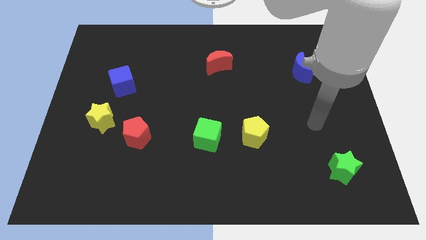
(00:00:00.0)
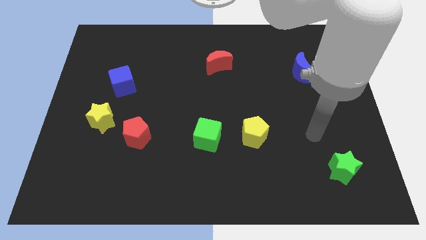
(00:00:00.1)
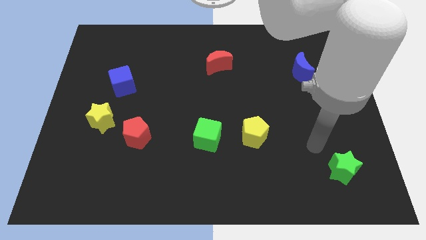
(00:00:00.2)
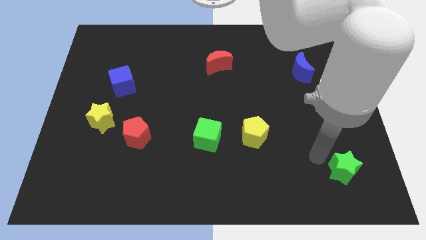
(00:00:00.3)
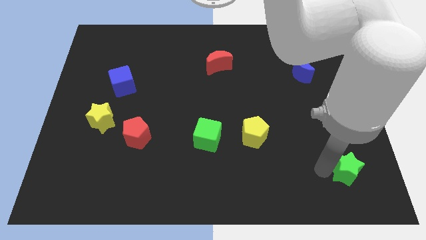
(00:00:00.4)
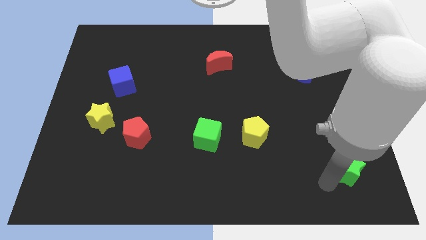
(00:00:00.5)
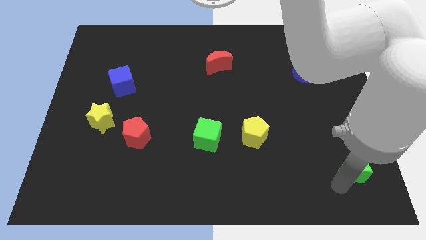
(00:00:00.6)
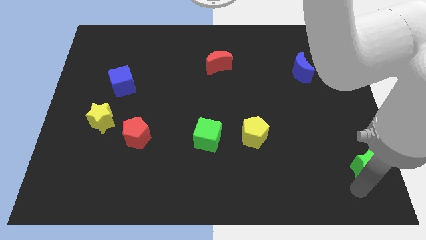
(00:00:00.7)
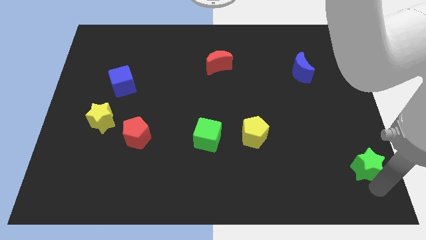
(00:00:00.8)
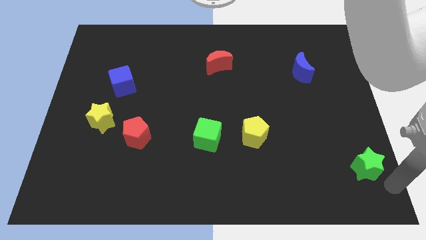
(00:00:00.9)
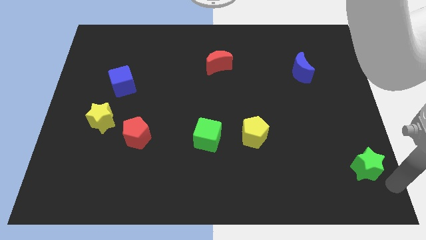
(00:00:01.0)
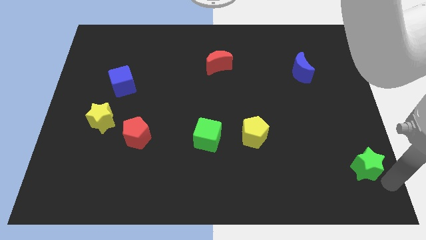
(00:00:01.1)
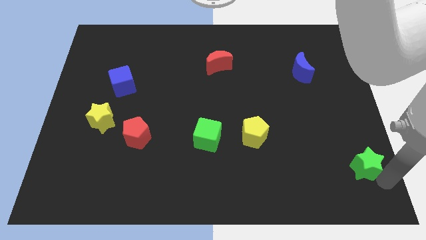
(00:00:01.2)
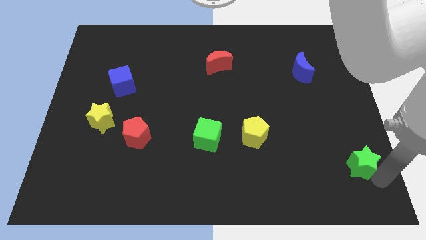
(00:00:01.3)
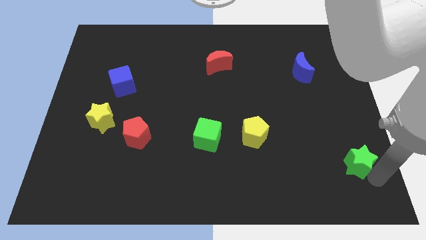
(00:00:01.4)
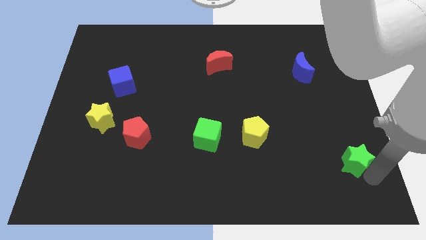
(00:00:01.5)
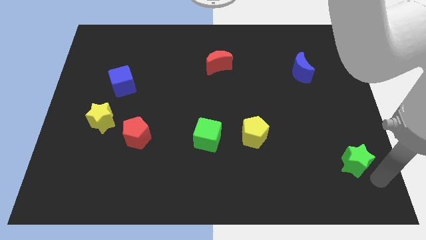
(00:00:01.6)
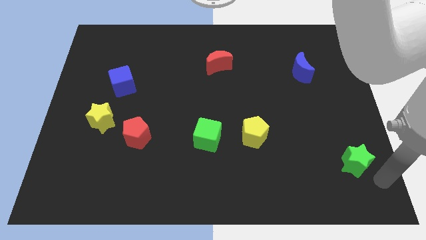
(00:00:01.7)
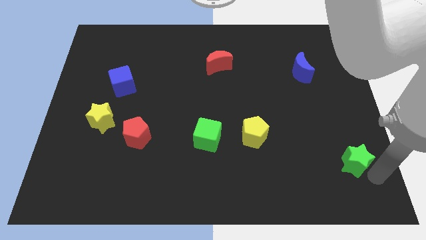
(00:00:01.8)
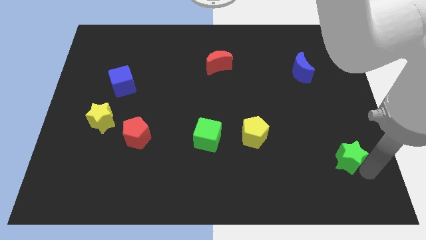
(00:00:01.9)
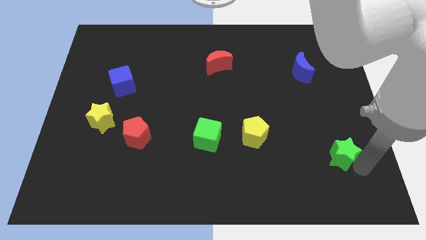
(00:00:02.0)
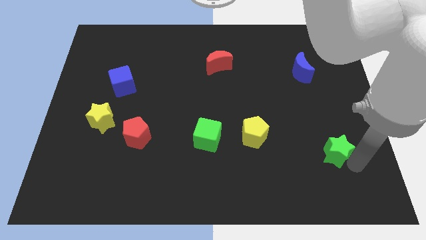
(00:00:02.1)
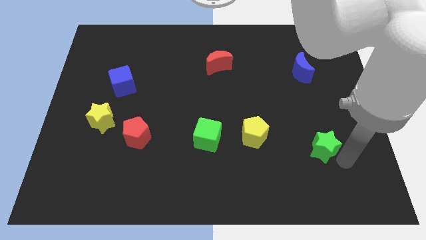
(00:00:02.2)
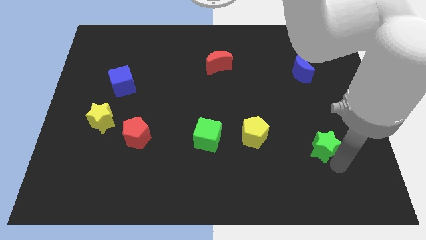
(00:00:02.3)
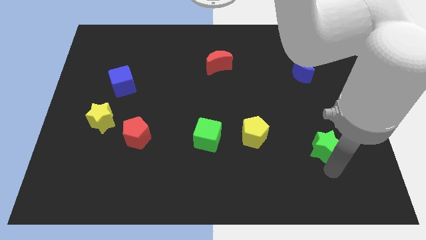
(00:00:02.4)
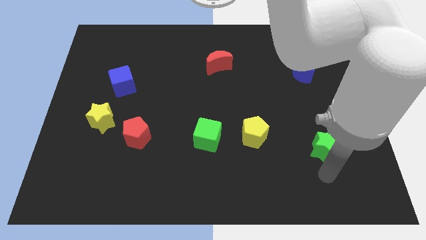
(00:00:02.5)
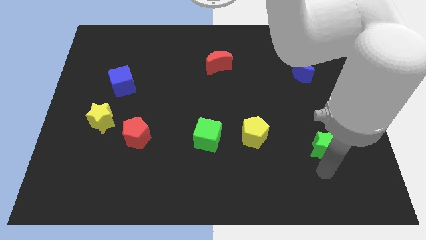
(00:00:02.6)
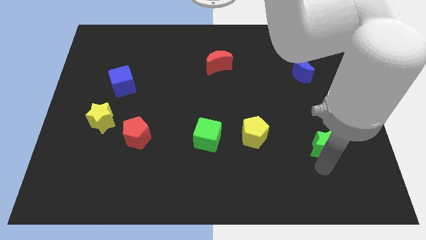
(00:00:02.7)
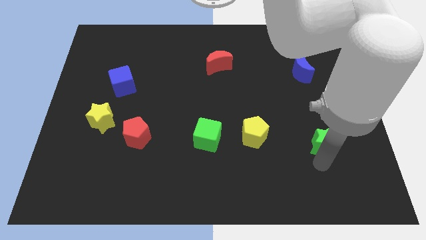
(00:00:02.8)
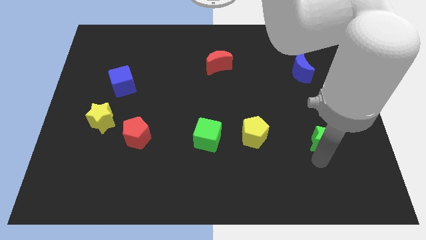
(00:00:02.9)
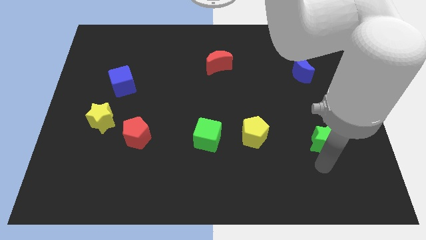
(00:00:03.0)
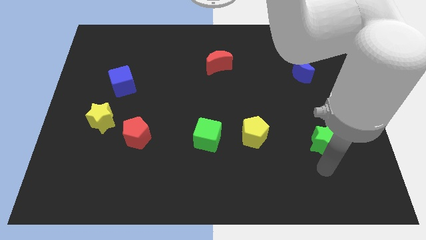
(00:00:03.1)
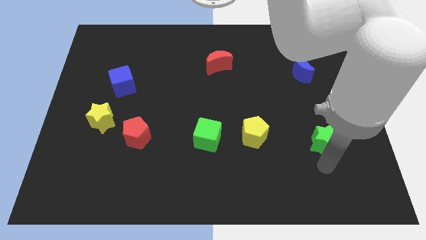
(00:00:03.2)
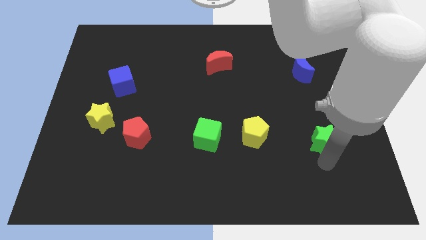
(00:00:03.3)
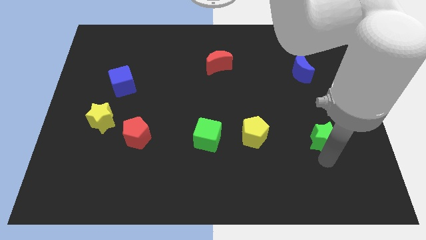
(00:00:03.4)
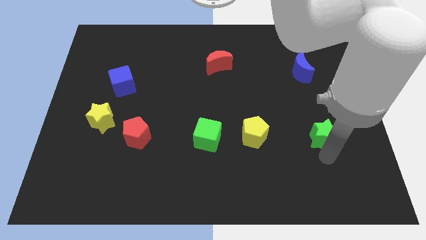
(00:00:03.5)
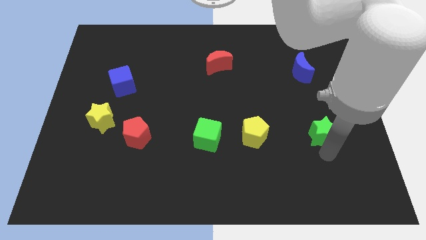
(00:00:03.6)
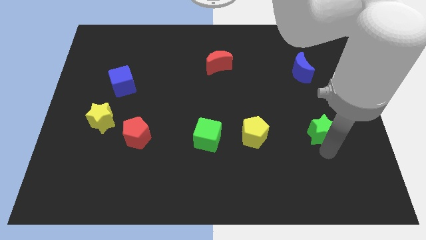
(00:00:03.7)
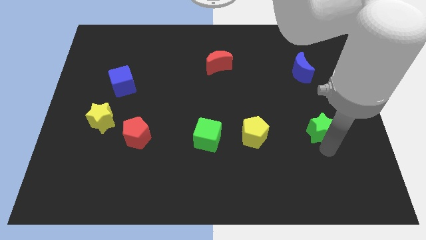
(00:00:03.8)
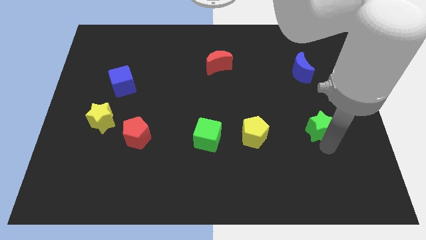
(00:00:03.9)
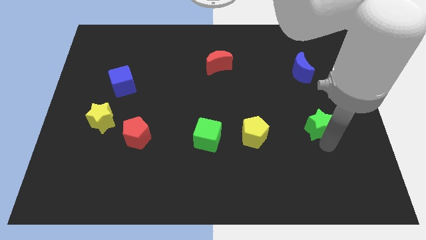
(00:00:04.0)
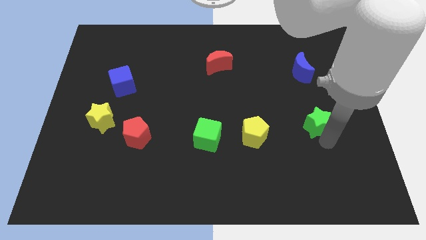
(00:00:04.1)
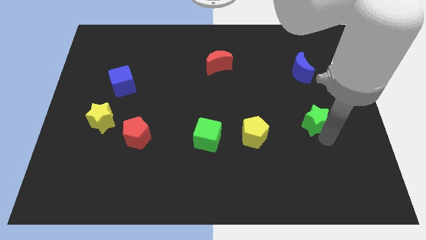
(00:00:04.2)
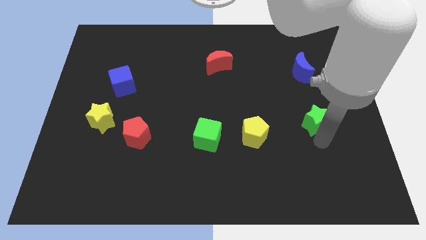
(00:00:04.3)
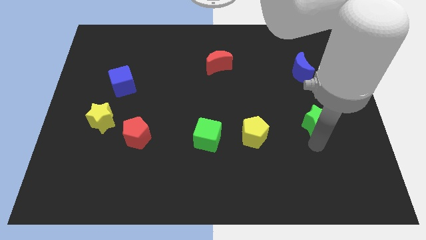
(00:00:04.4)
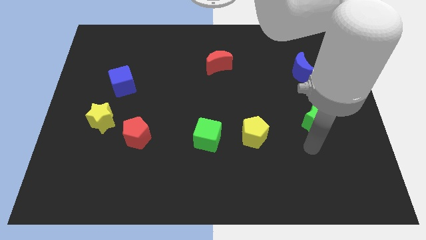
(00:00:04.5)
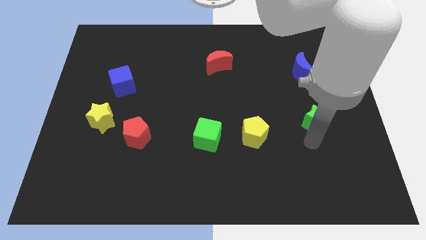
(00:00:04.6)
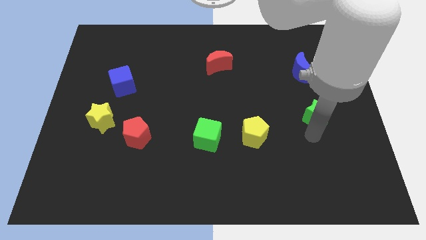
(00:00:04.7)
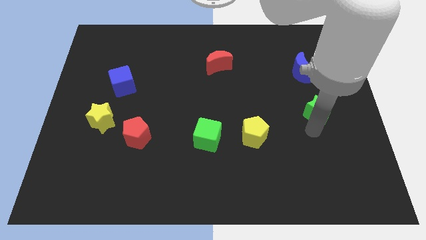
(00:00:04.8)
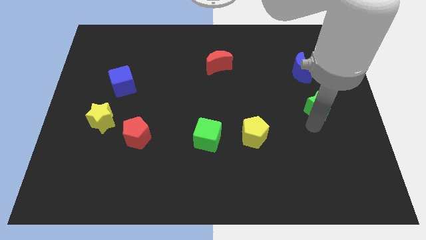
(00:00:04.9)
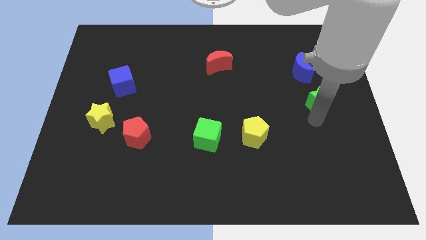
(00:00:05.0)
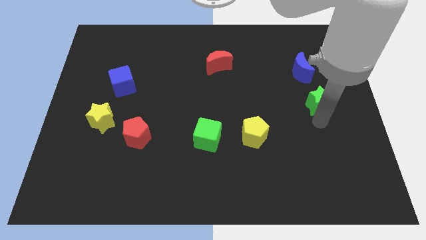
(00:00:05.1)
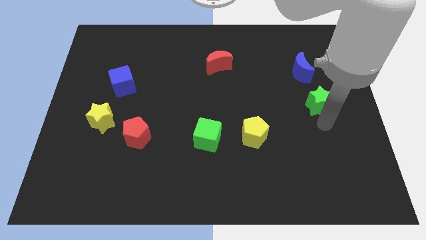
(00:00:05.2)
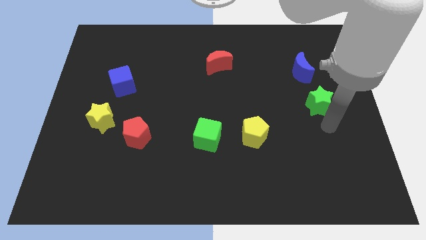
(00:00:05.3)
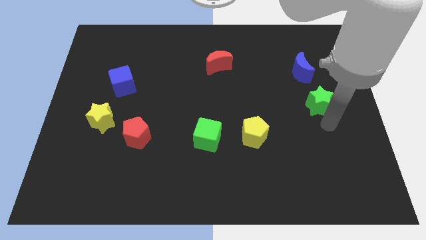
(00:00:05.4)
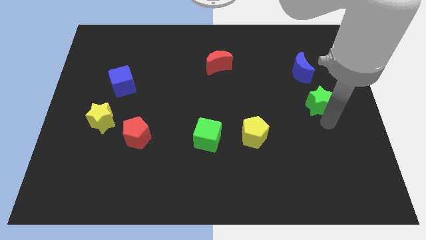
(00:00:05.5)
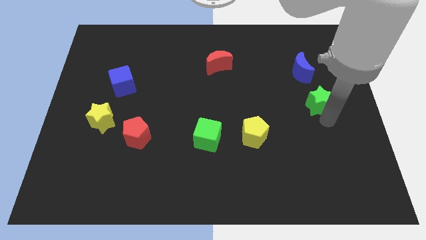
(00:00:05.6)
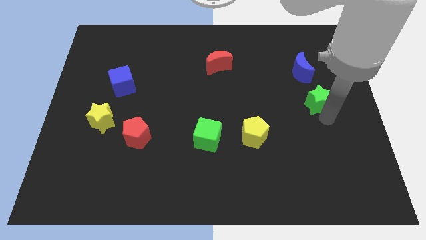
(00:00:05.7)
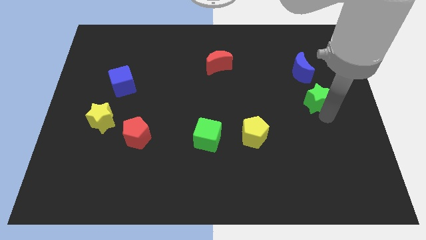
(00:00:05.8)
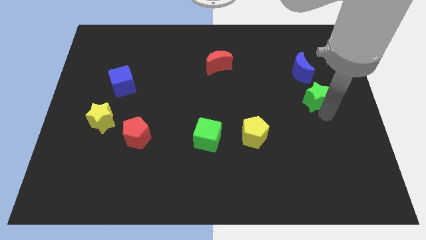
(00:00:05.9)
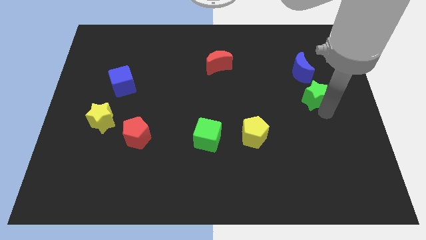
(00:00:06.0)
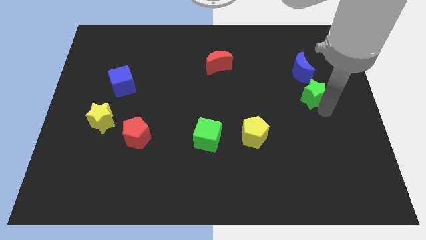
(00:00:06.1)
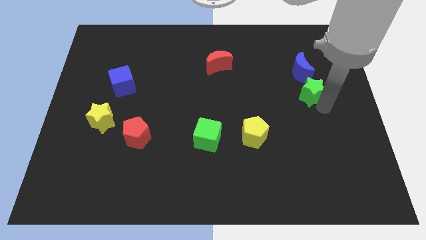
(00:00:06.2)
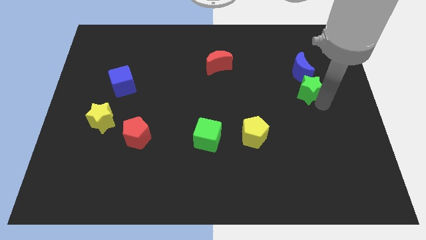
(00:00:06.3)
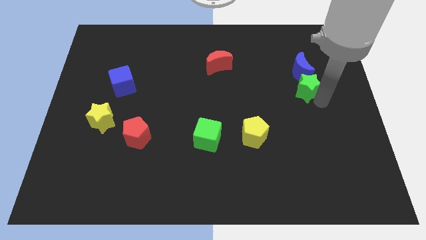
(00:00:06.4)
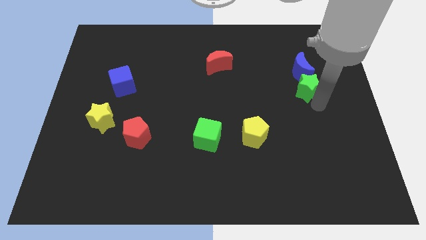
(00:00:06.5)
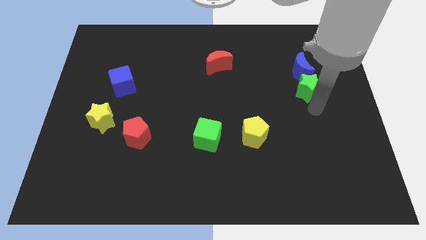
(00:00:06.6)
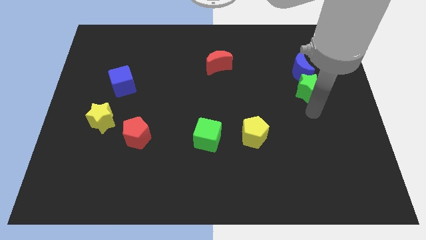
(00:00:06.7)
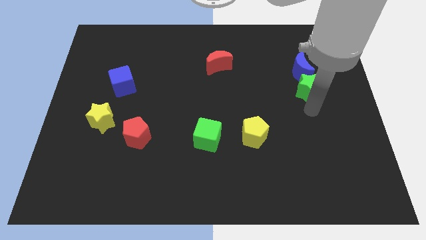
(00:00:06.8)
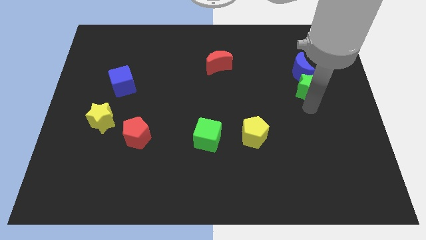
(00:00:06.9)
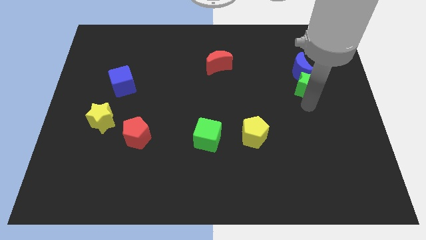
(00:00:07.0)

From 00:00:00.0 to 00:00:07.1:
move the green star towards the blue moon
